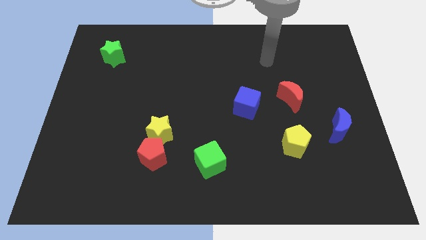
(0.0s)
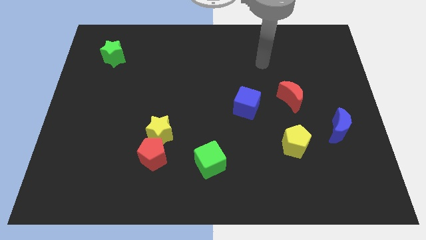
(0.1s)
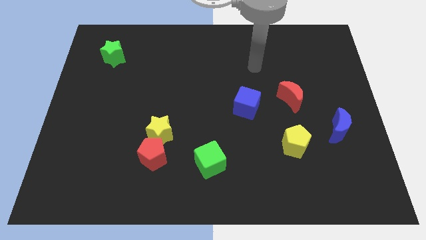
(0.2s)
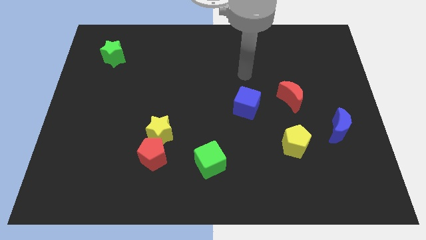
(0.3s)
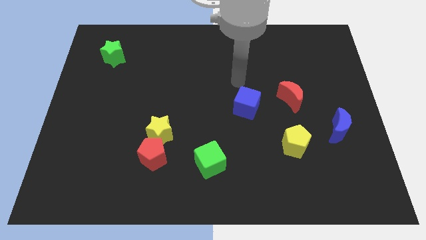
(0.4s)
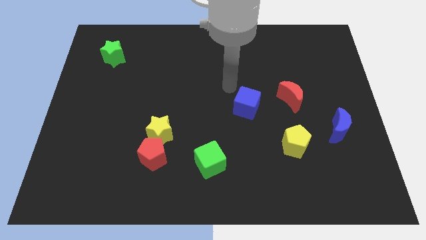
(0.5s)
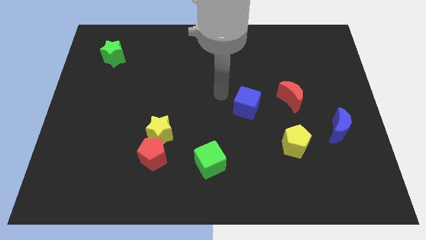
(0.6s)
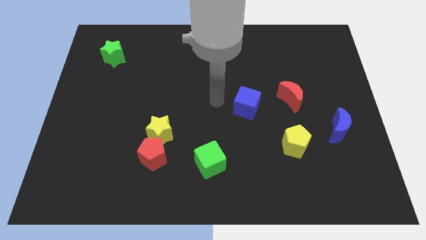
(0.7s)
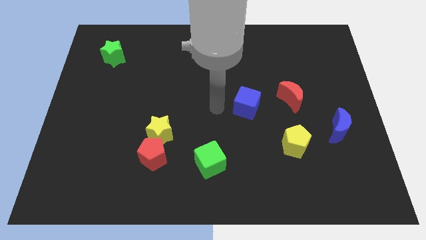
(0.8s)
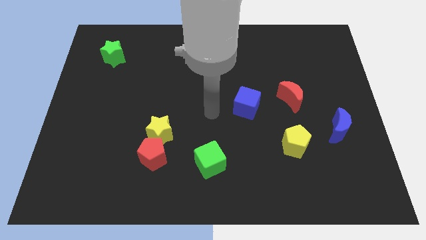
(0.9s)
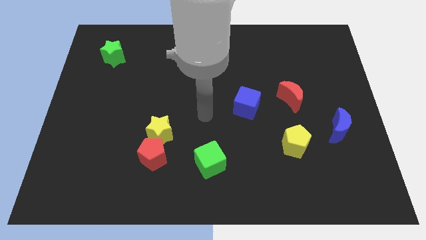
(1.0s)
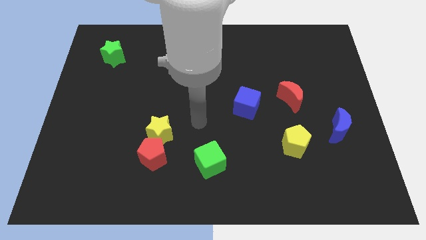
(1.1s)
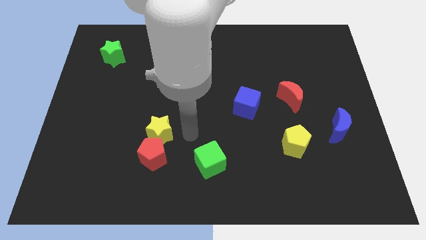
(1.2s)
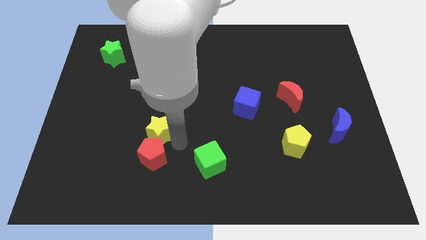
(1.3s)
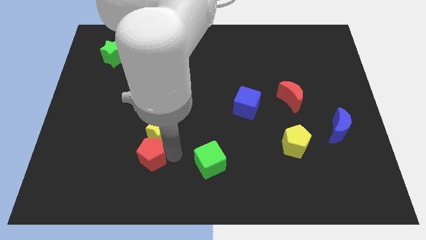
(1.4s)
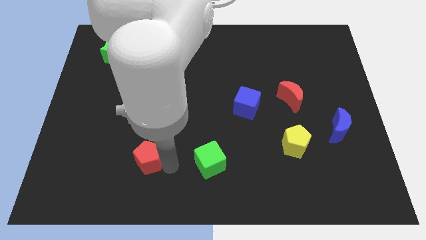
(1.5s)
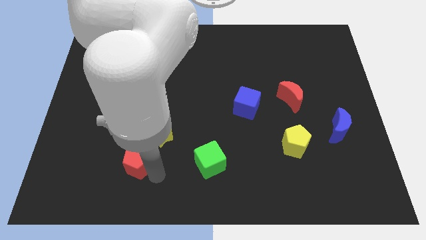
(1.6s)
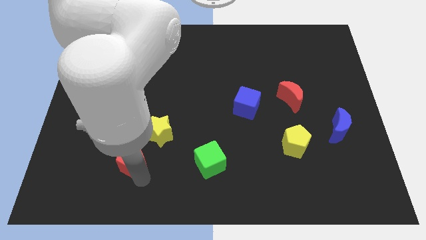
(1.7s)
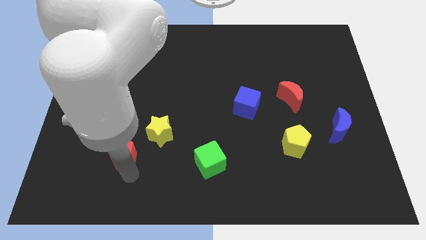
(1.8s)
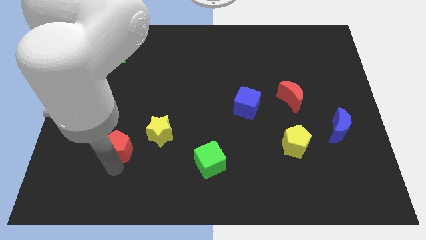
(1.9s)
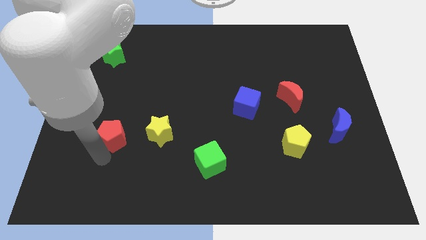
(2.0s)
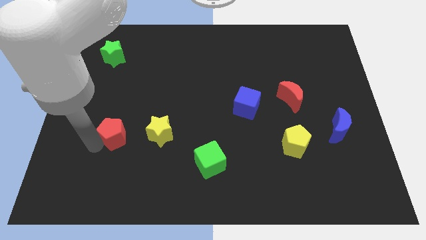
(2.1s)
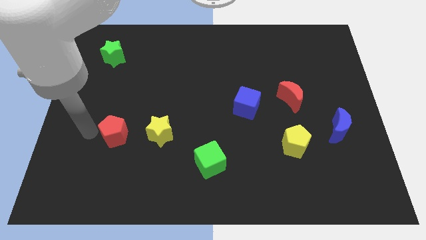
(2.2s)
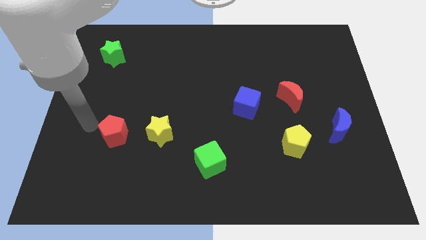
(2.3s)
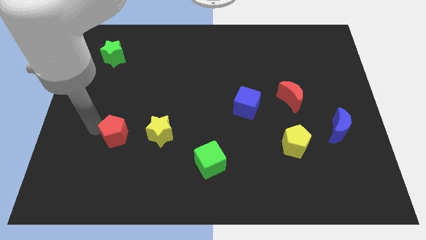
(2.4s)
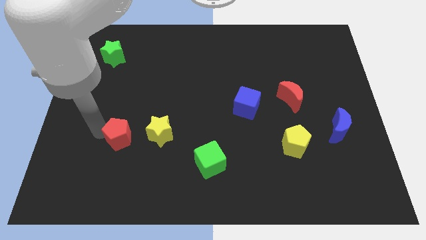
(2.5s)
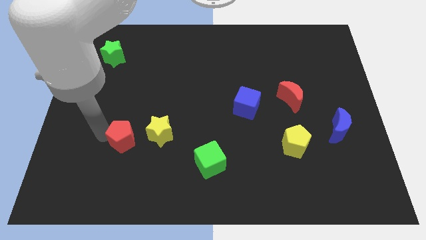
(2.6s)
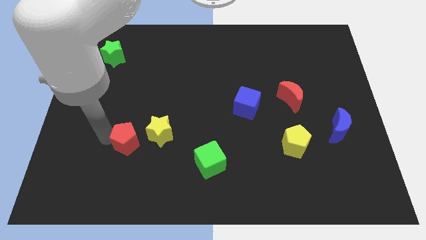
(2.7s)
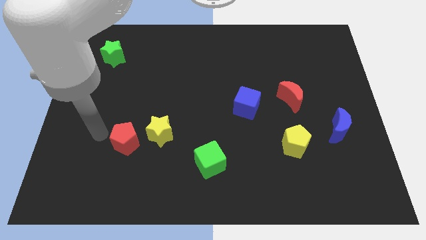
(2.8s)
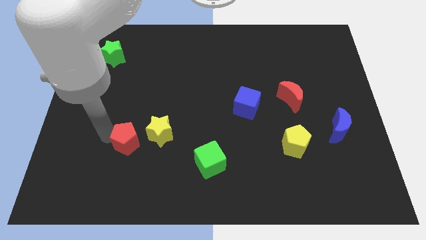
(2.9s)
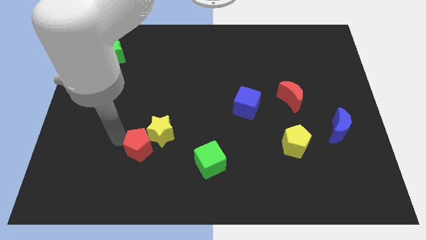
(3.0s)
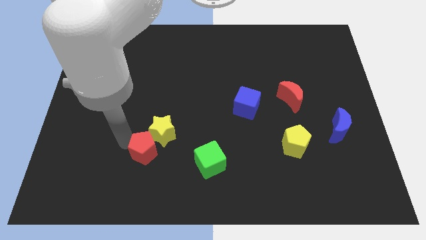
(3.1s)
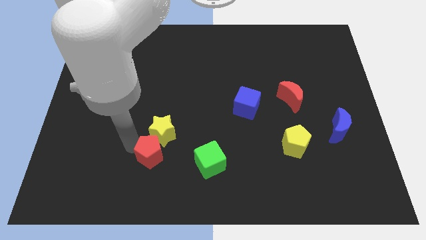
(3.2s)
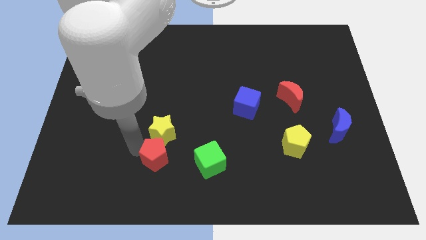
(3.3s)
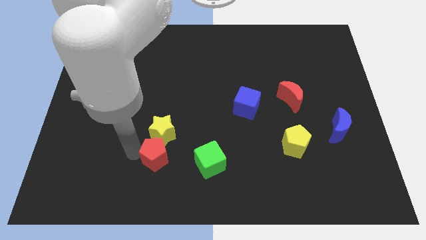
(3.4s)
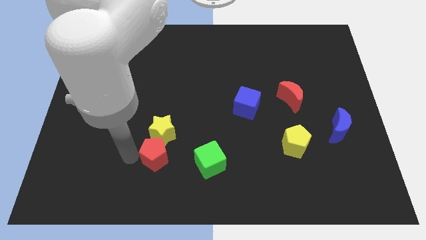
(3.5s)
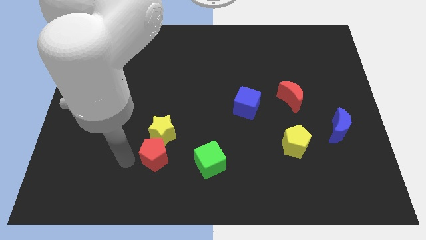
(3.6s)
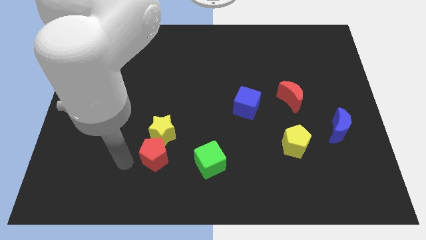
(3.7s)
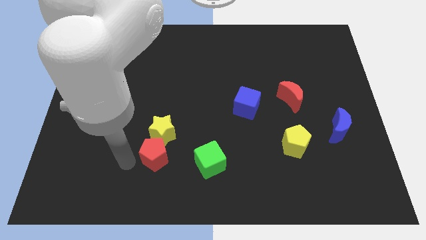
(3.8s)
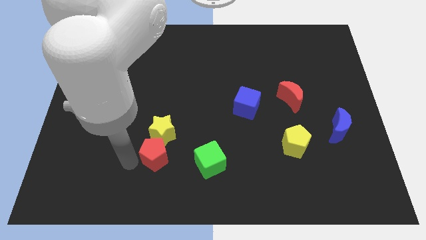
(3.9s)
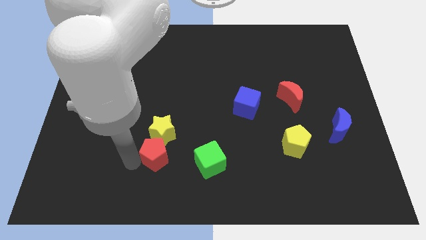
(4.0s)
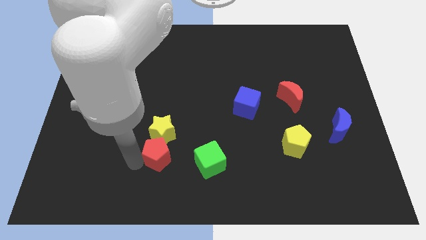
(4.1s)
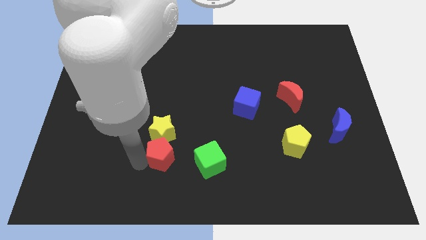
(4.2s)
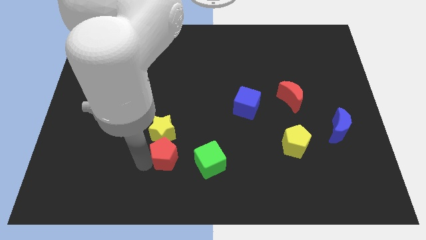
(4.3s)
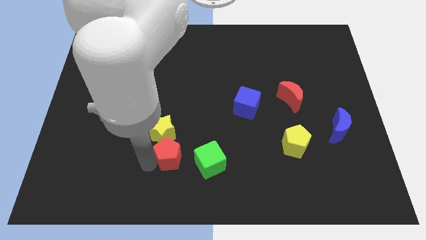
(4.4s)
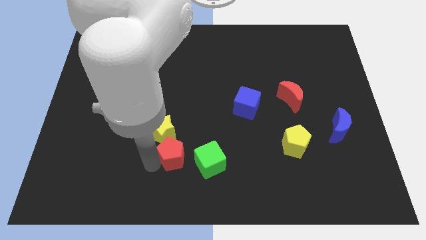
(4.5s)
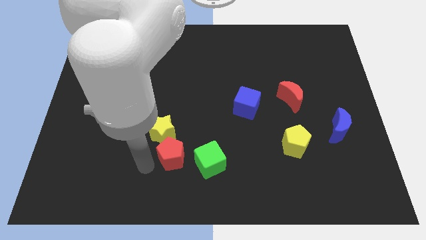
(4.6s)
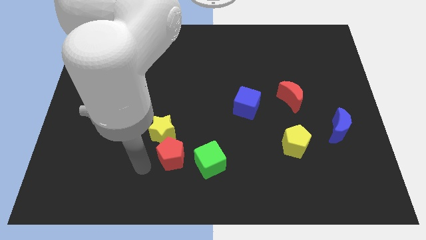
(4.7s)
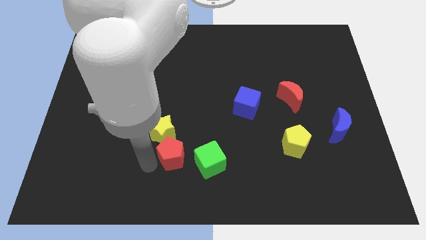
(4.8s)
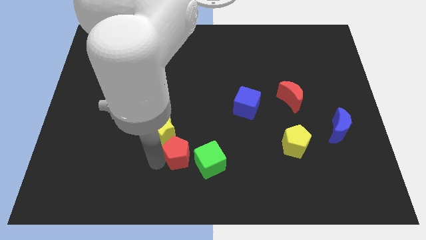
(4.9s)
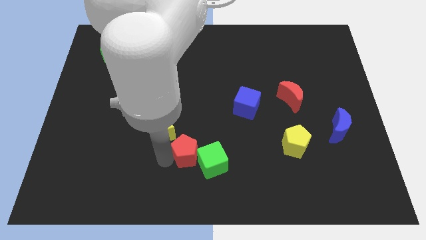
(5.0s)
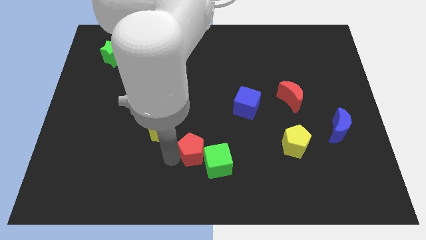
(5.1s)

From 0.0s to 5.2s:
push the red pentagon a little right

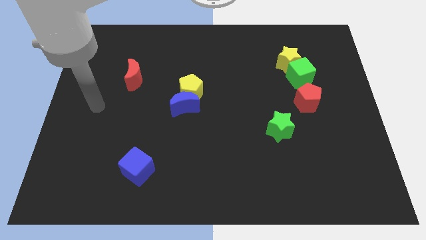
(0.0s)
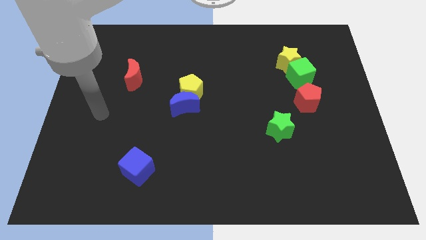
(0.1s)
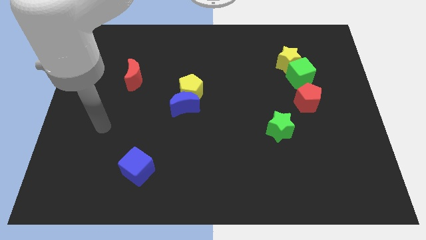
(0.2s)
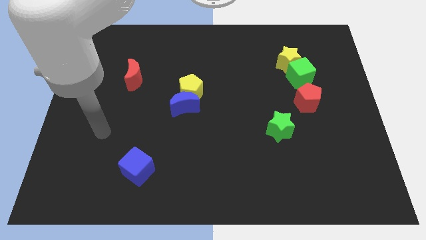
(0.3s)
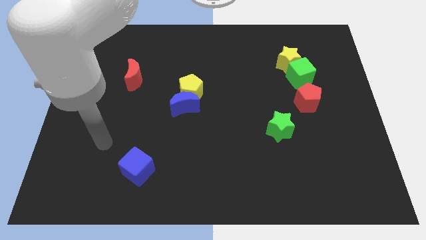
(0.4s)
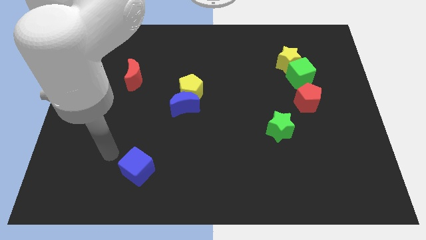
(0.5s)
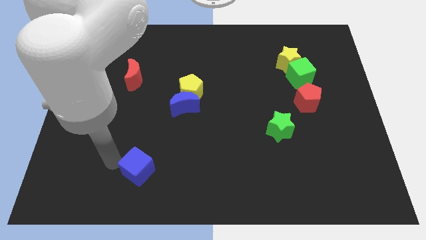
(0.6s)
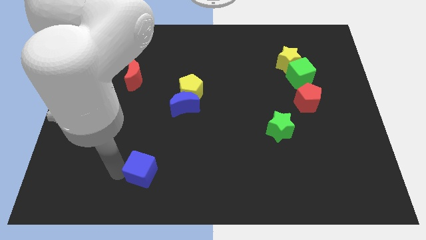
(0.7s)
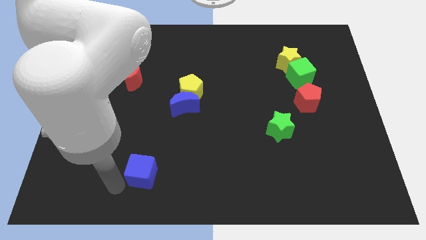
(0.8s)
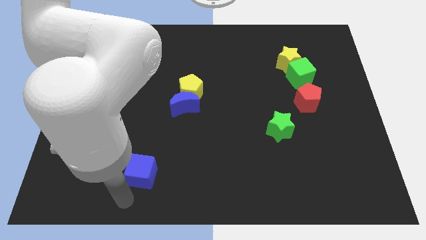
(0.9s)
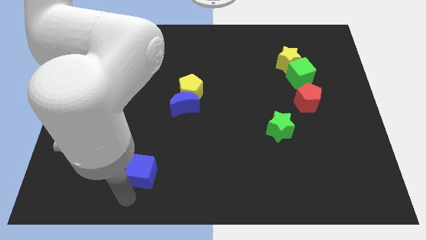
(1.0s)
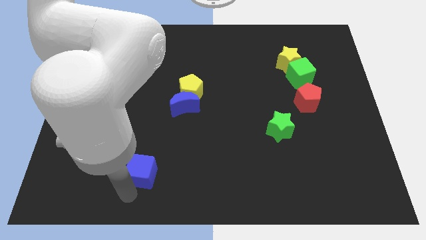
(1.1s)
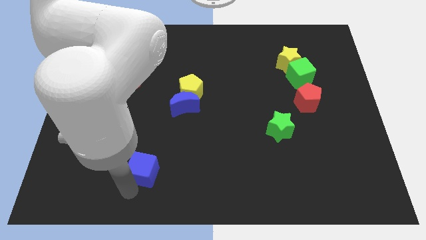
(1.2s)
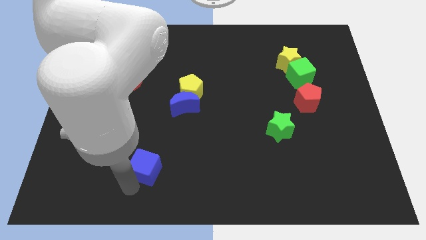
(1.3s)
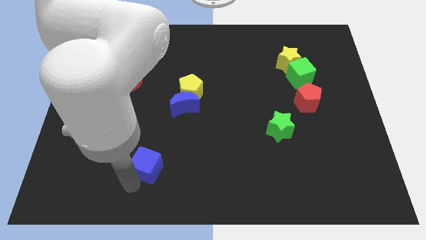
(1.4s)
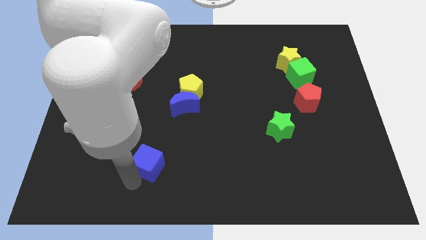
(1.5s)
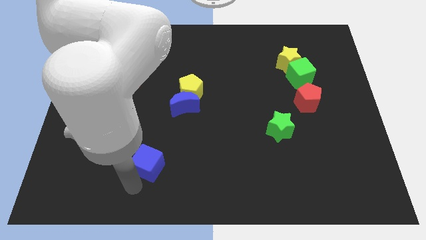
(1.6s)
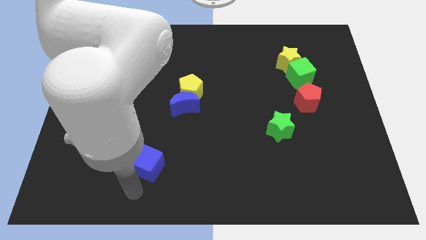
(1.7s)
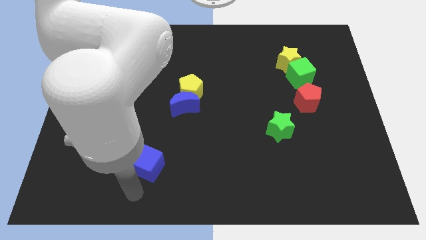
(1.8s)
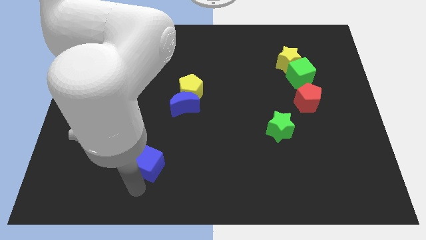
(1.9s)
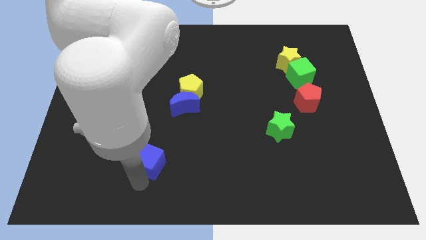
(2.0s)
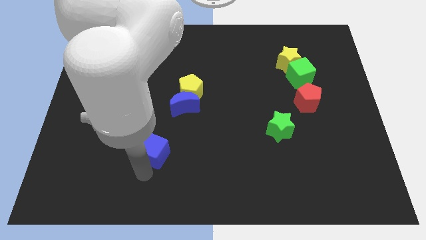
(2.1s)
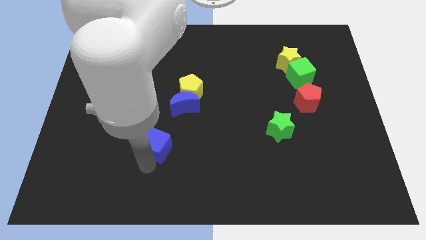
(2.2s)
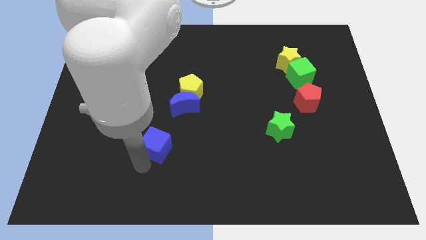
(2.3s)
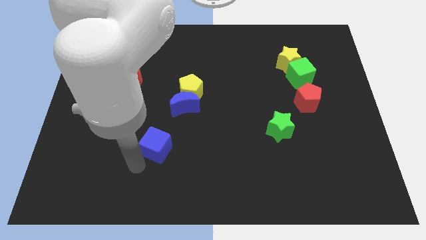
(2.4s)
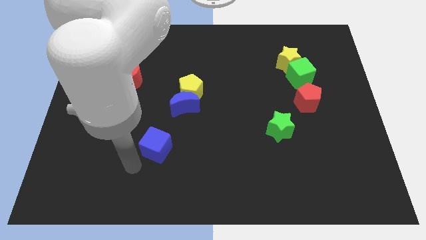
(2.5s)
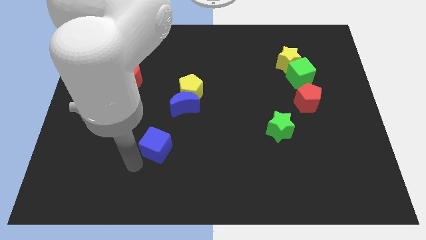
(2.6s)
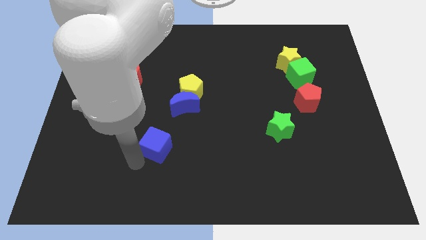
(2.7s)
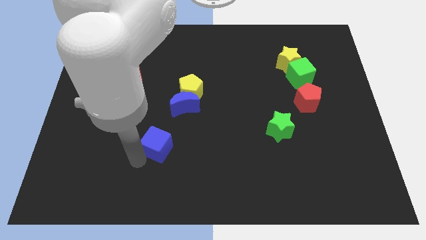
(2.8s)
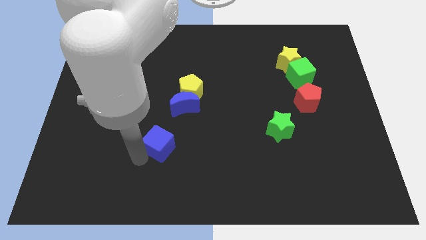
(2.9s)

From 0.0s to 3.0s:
move the blue cube a little upwards and then to the right
